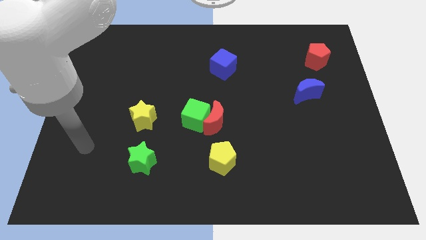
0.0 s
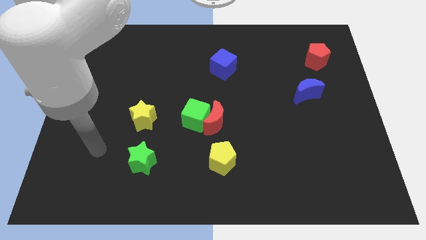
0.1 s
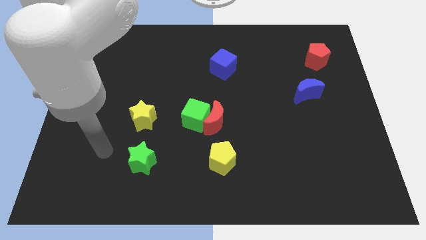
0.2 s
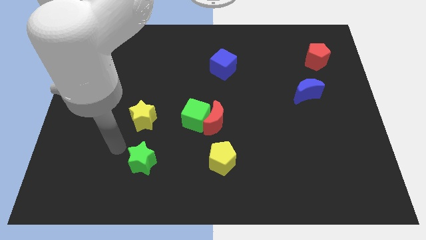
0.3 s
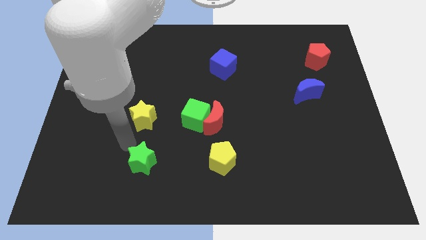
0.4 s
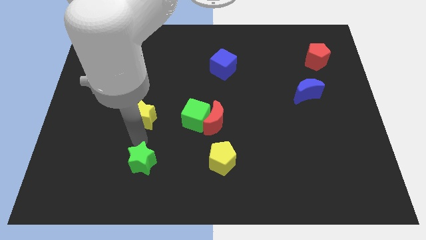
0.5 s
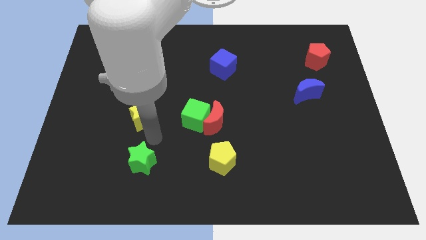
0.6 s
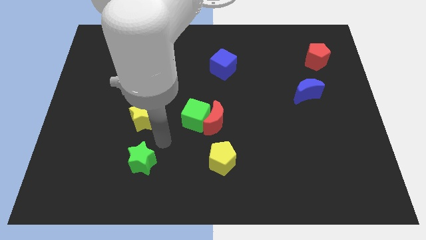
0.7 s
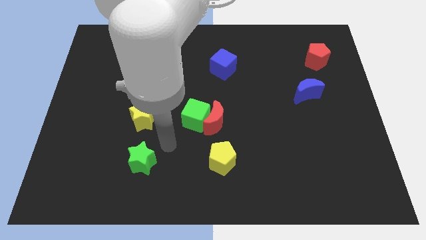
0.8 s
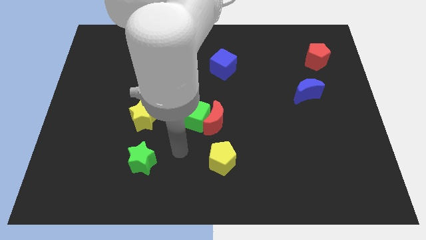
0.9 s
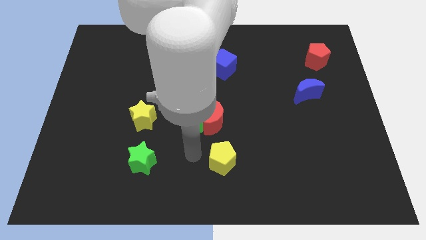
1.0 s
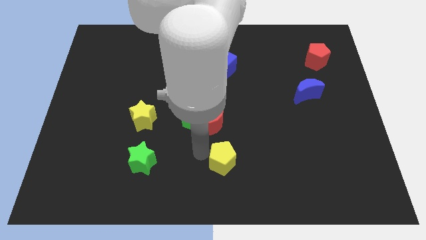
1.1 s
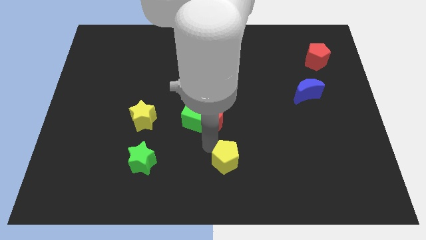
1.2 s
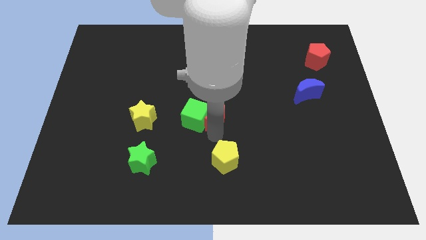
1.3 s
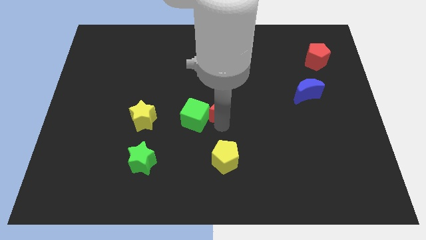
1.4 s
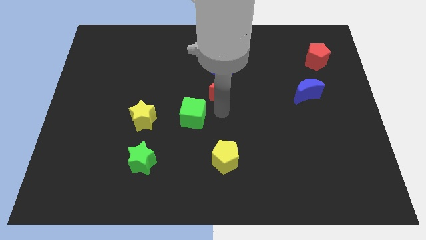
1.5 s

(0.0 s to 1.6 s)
pull the green cube apart from the red moon

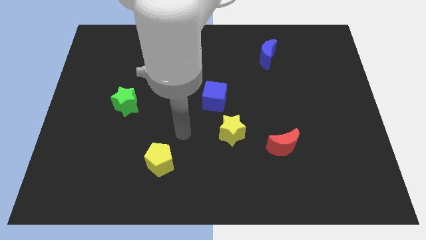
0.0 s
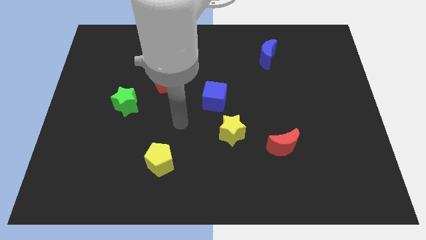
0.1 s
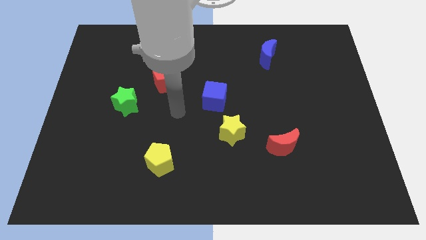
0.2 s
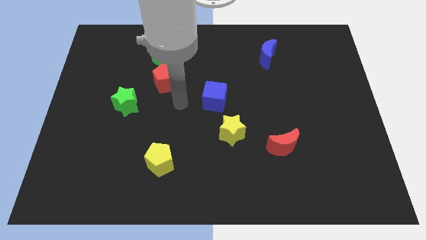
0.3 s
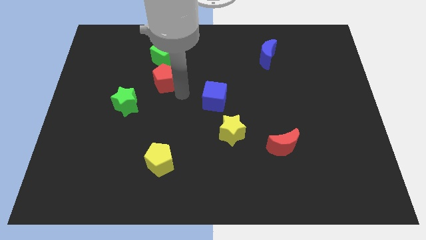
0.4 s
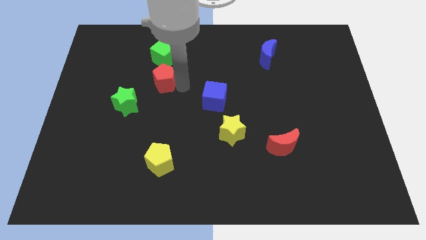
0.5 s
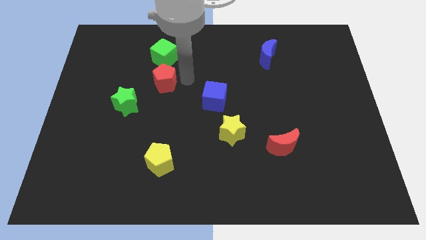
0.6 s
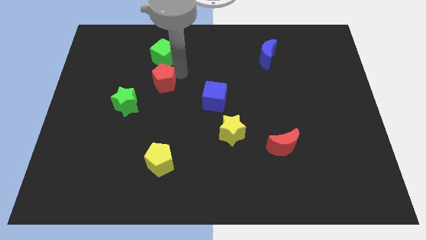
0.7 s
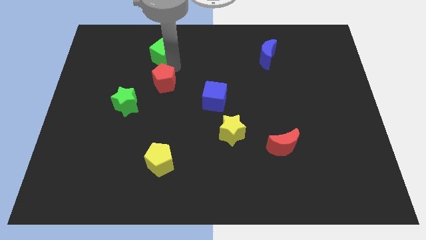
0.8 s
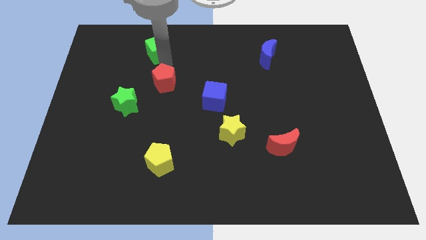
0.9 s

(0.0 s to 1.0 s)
separate the red pentagon from the green cube

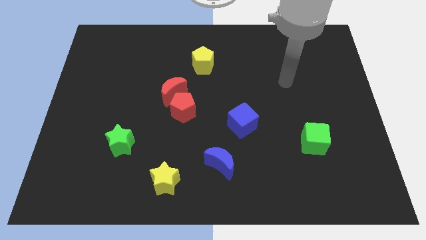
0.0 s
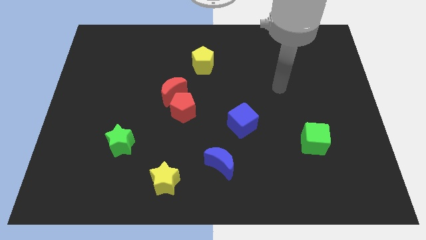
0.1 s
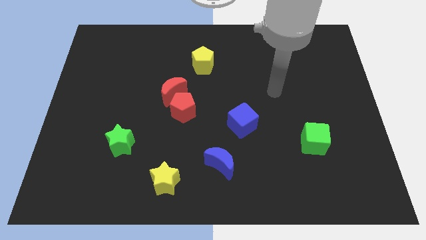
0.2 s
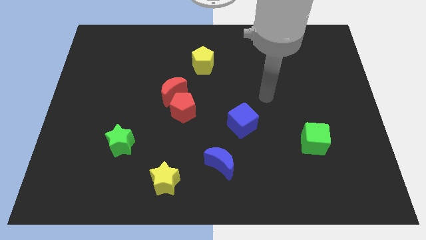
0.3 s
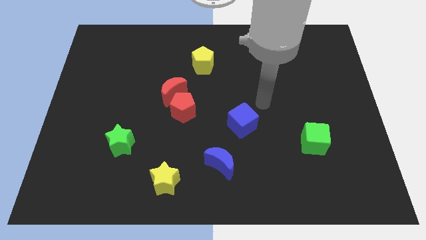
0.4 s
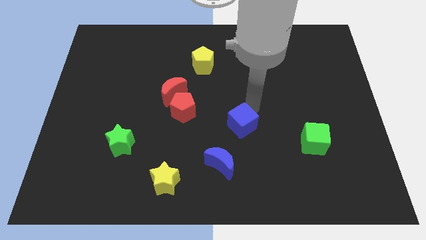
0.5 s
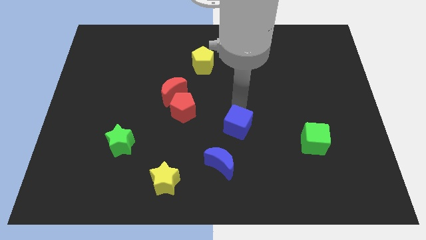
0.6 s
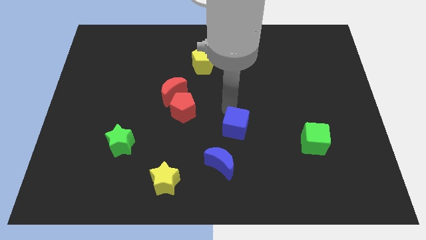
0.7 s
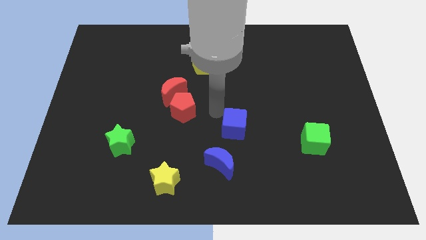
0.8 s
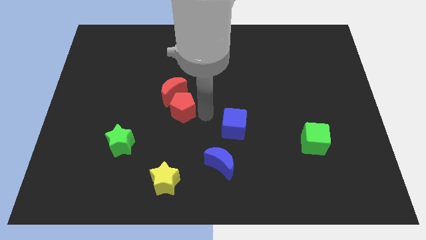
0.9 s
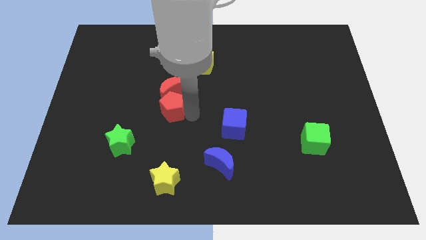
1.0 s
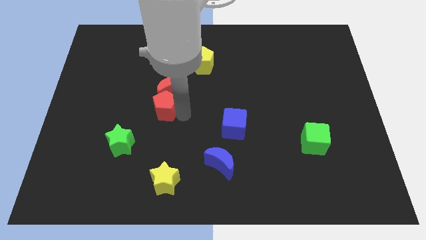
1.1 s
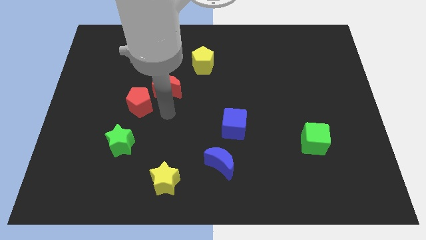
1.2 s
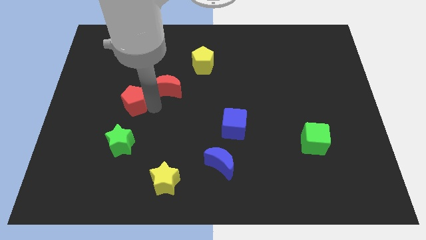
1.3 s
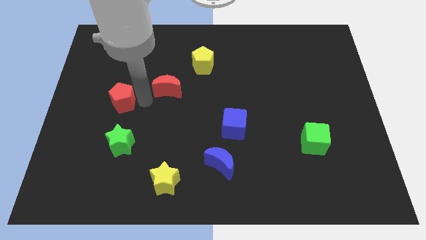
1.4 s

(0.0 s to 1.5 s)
pull the red moon apart from the red pentagon

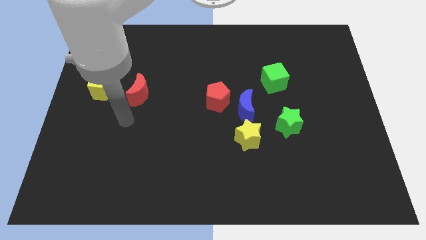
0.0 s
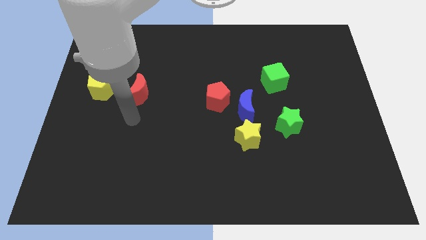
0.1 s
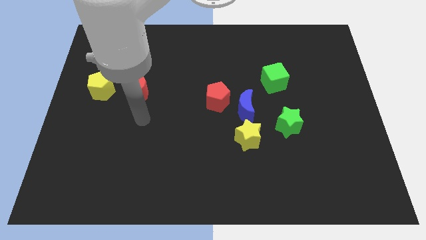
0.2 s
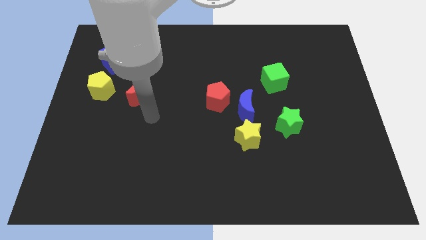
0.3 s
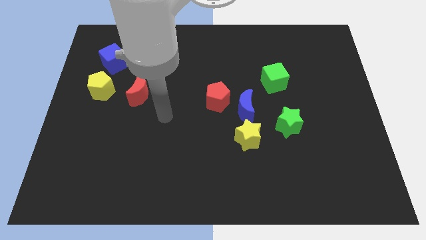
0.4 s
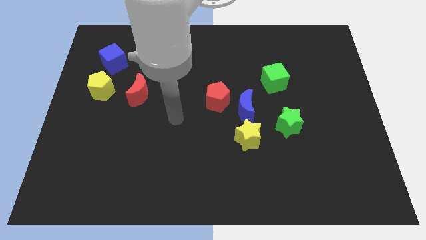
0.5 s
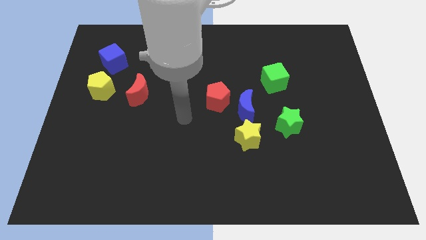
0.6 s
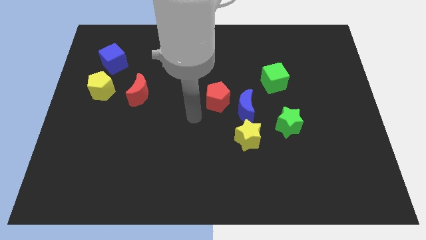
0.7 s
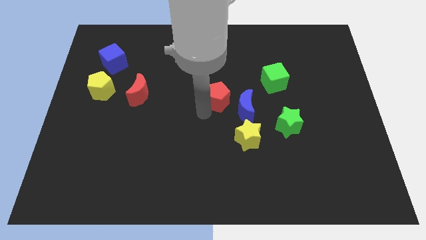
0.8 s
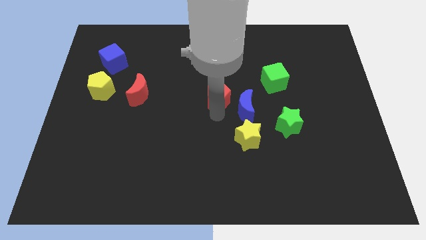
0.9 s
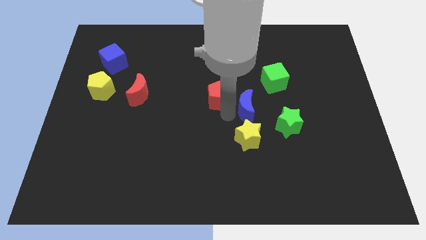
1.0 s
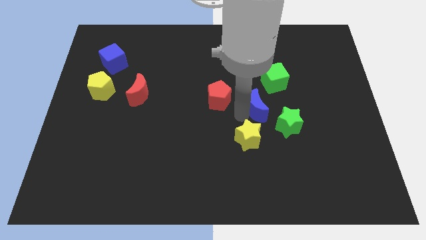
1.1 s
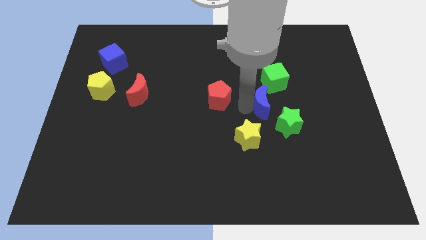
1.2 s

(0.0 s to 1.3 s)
move the red pentagon away from the blue moon

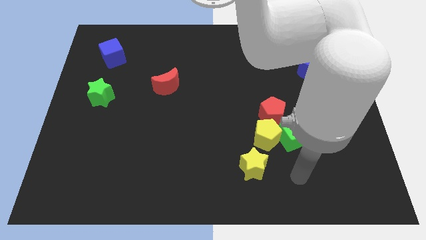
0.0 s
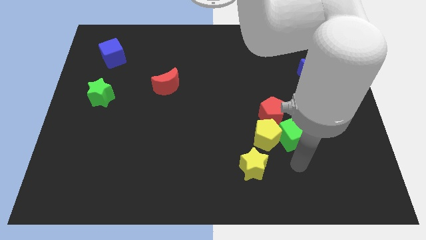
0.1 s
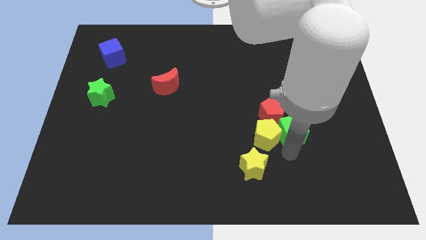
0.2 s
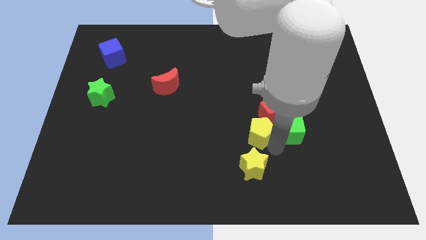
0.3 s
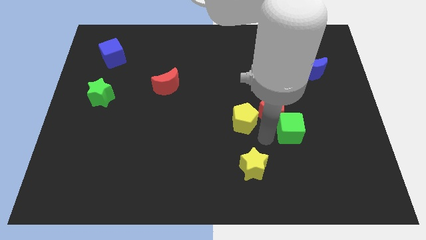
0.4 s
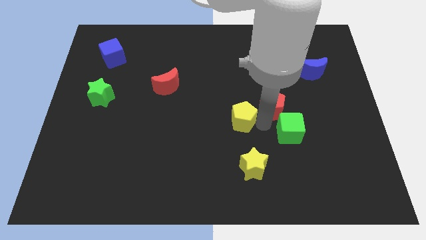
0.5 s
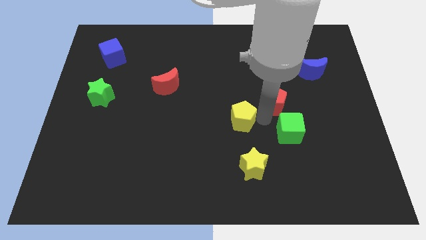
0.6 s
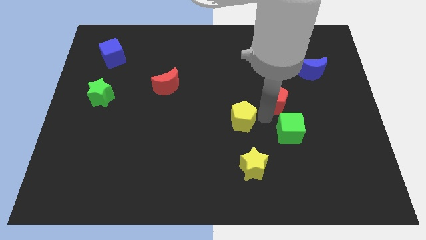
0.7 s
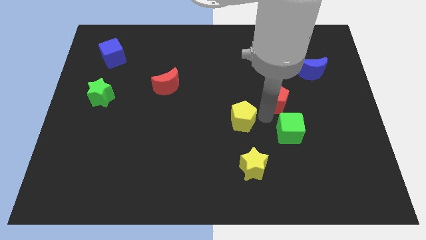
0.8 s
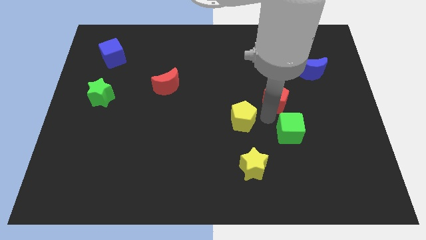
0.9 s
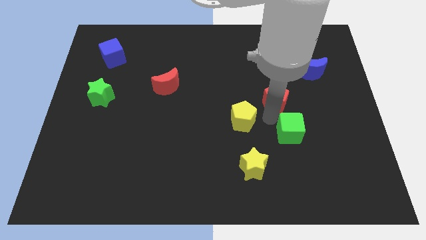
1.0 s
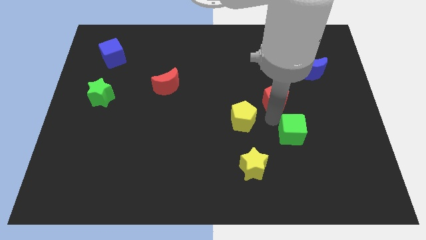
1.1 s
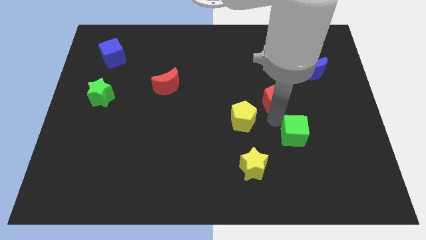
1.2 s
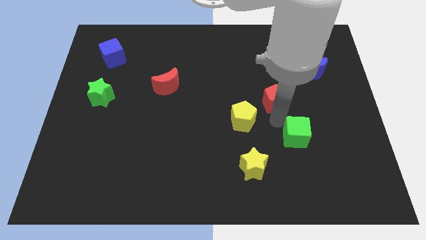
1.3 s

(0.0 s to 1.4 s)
pull the green cube apart from the yellow pentagon and red pentagon

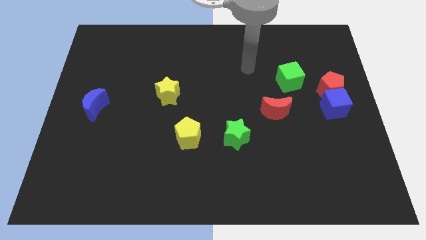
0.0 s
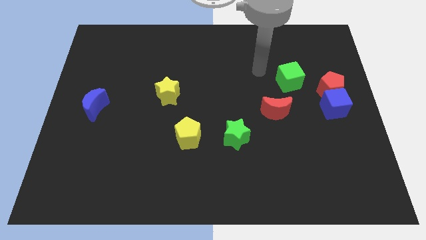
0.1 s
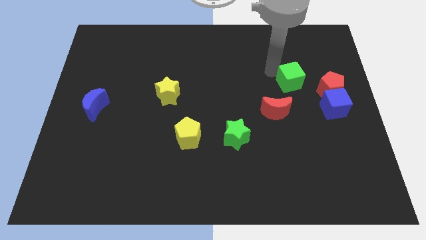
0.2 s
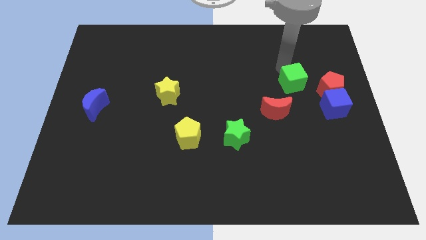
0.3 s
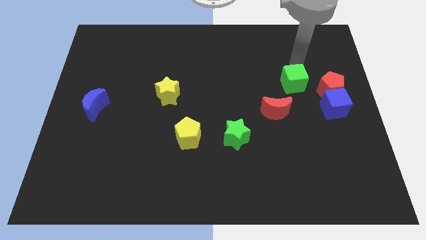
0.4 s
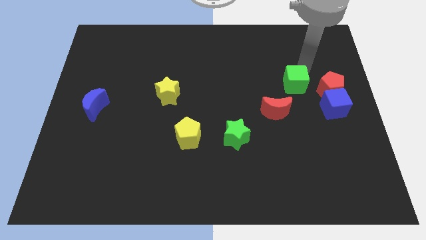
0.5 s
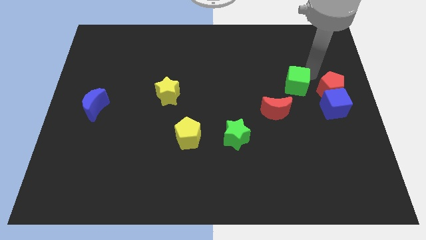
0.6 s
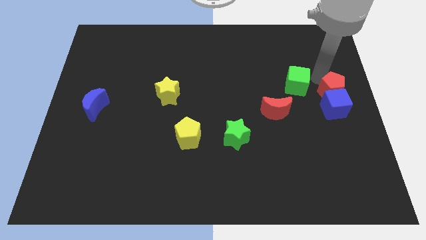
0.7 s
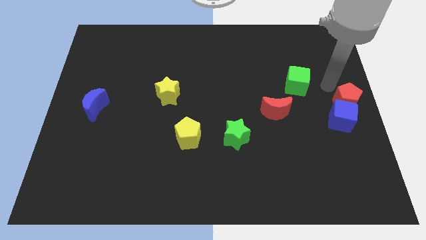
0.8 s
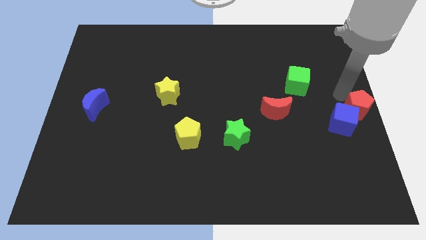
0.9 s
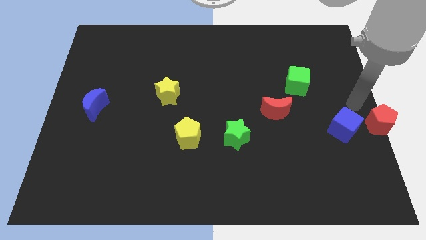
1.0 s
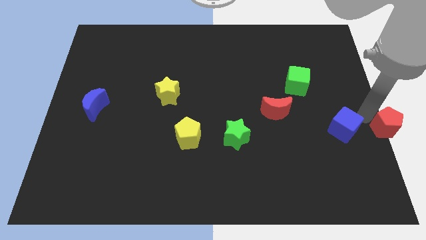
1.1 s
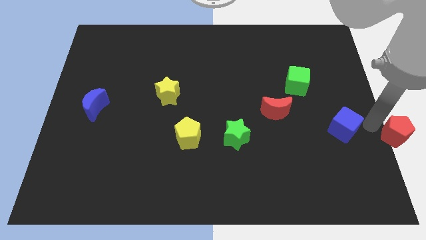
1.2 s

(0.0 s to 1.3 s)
pull the blue cube apart from the red pentagon

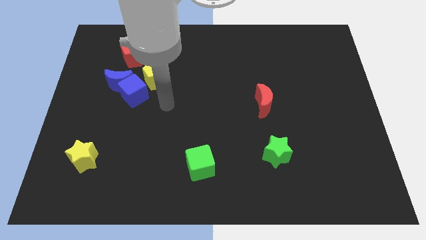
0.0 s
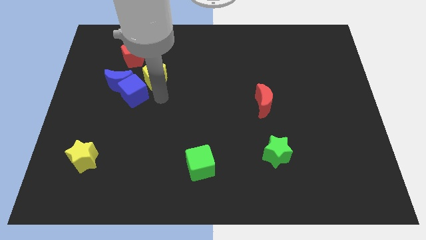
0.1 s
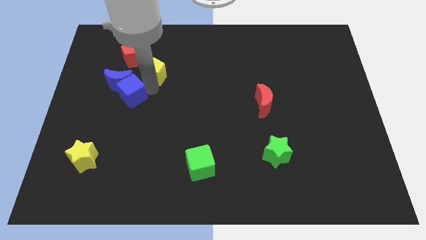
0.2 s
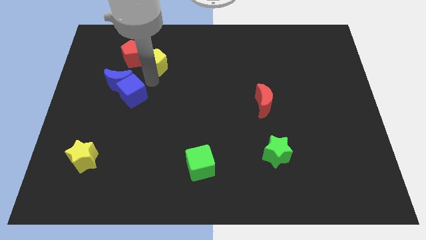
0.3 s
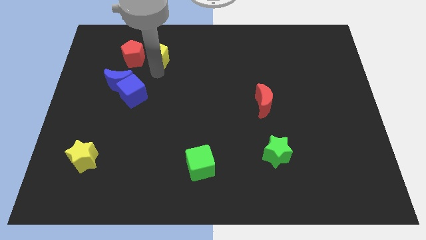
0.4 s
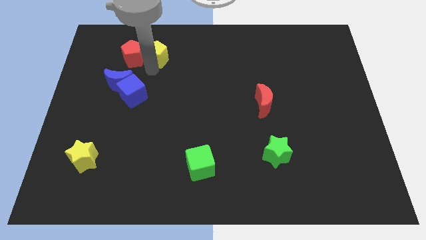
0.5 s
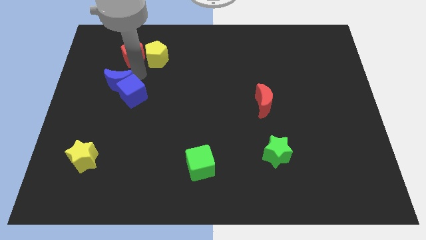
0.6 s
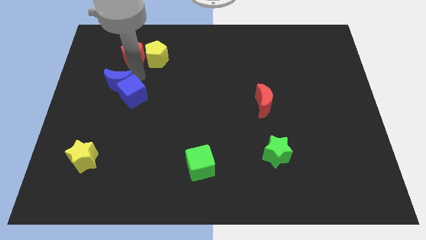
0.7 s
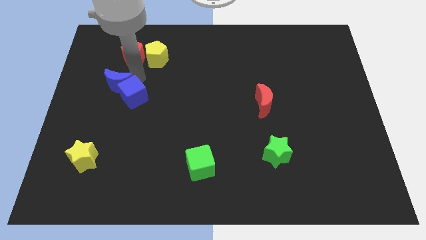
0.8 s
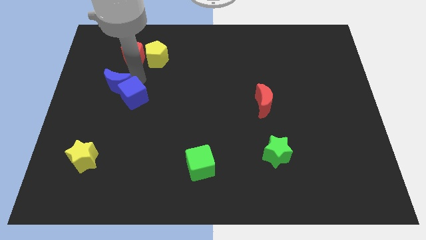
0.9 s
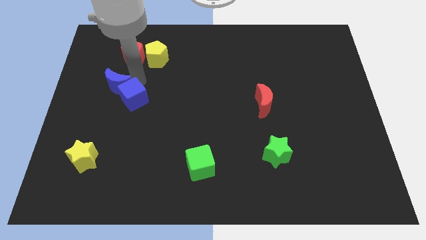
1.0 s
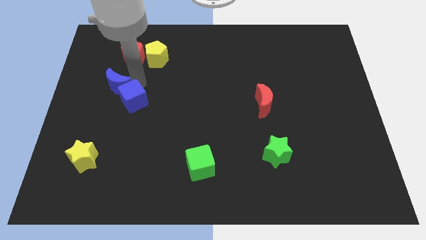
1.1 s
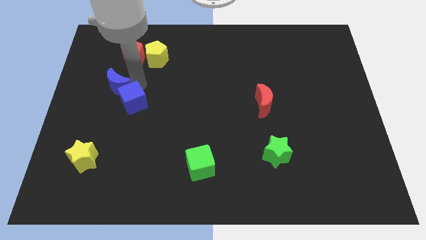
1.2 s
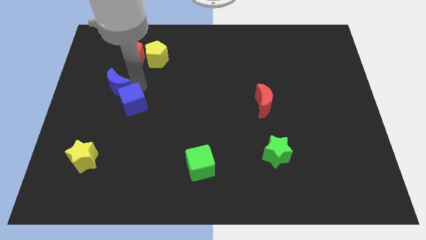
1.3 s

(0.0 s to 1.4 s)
pull the blue cube apart from the blue moon and yellow pentagon
